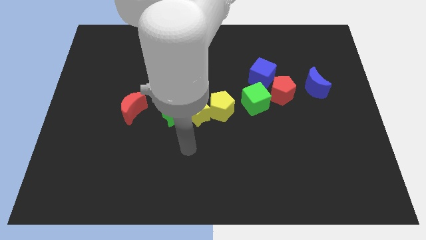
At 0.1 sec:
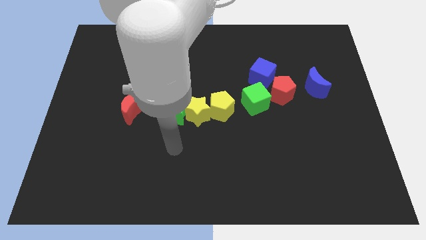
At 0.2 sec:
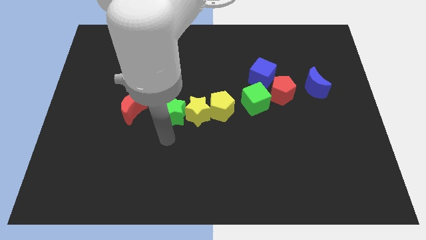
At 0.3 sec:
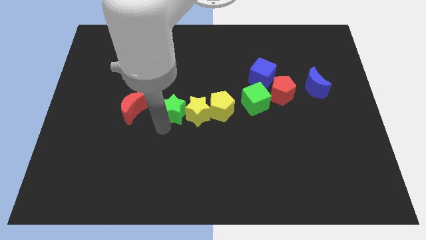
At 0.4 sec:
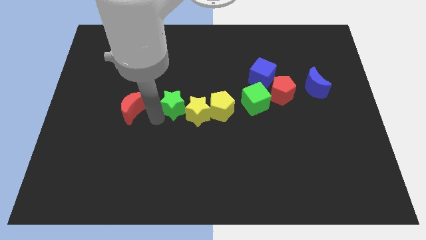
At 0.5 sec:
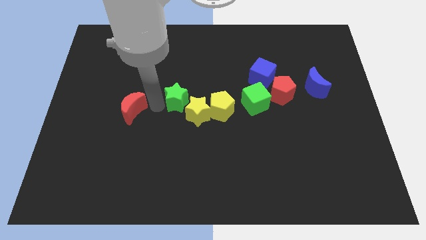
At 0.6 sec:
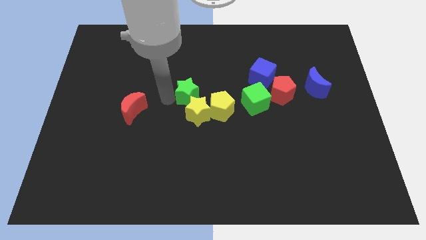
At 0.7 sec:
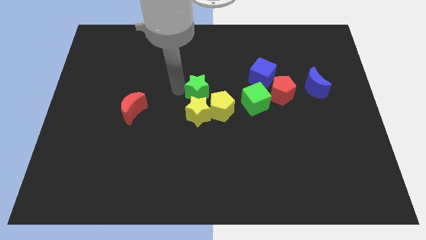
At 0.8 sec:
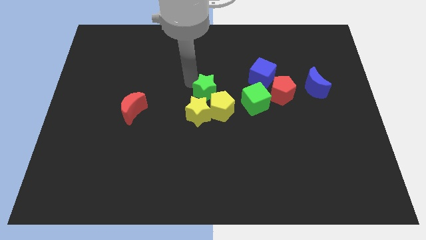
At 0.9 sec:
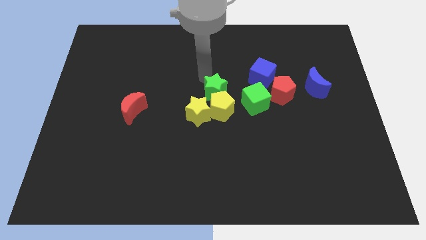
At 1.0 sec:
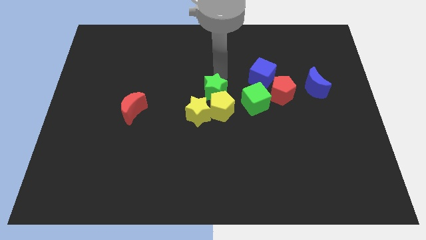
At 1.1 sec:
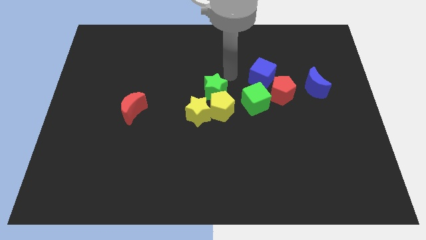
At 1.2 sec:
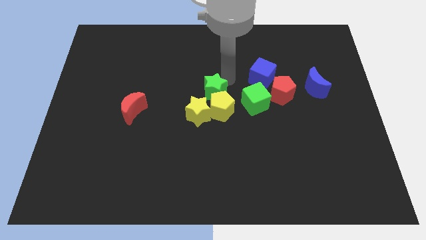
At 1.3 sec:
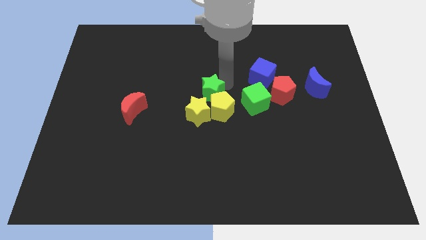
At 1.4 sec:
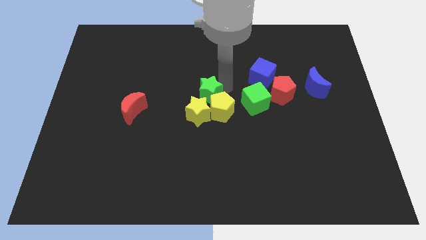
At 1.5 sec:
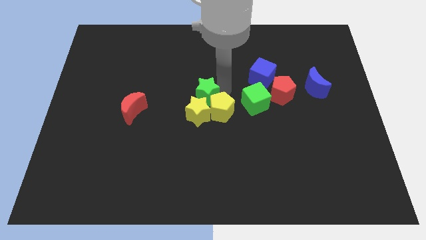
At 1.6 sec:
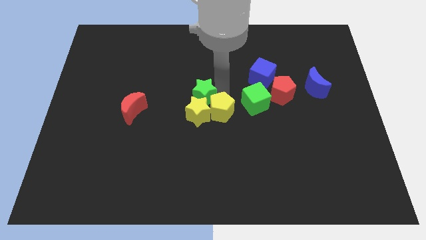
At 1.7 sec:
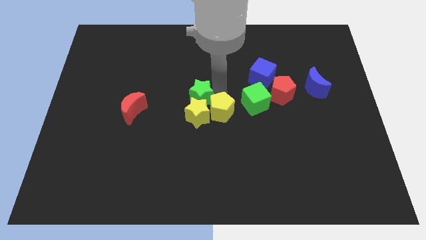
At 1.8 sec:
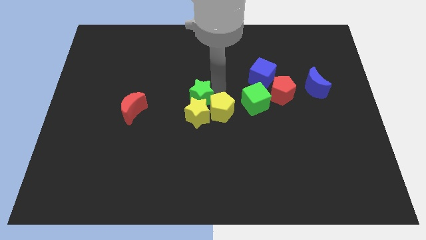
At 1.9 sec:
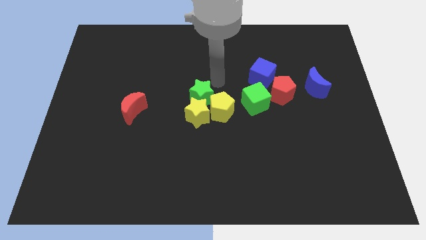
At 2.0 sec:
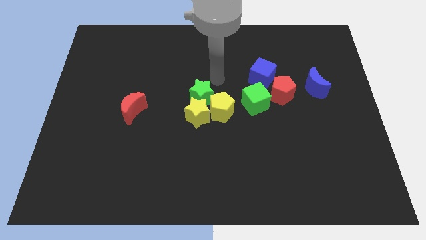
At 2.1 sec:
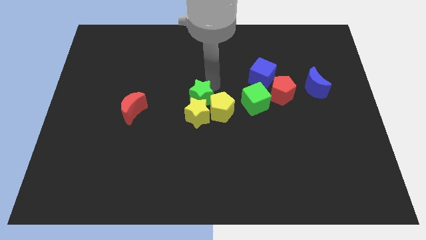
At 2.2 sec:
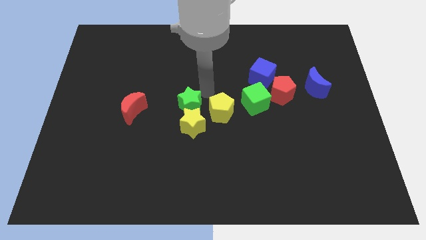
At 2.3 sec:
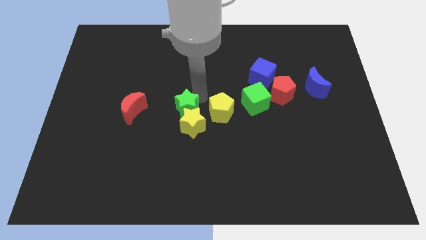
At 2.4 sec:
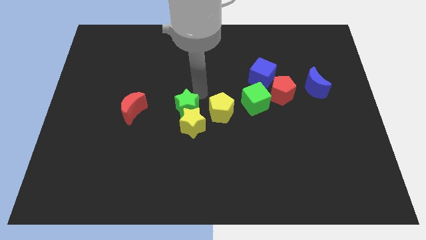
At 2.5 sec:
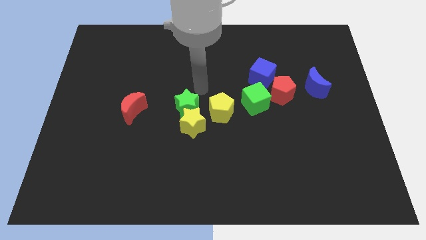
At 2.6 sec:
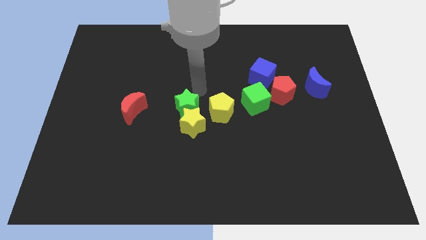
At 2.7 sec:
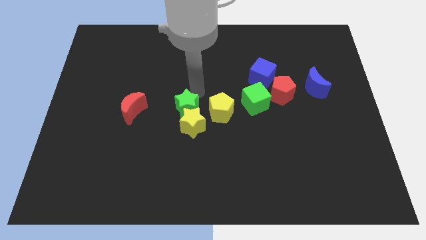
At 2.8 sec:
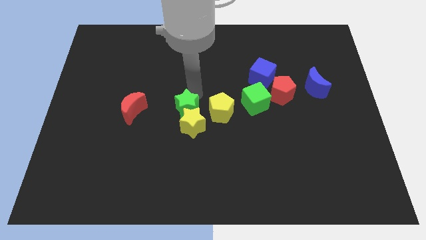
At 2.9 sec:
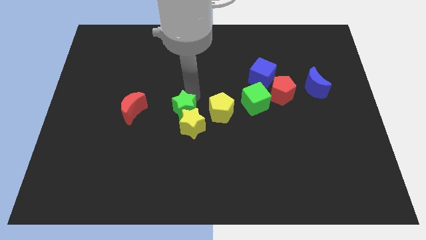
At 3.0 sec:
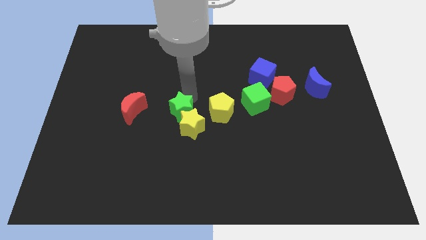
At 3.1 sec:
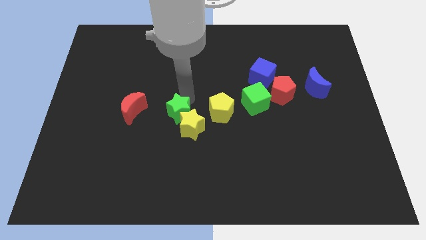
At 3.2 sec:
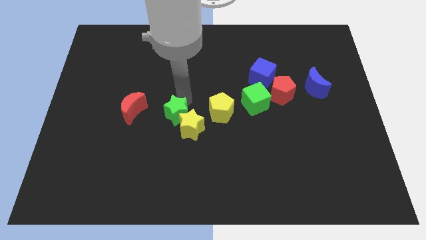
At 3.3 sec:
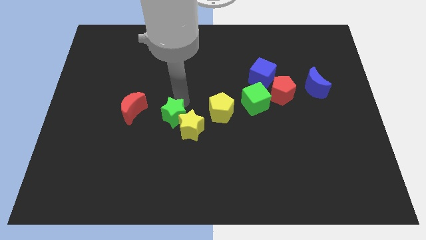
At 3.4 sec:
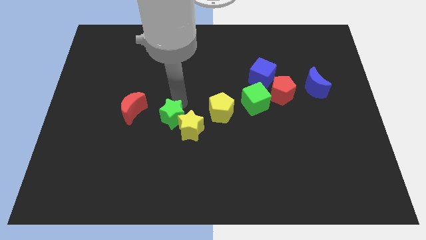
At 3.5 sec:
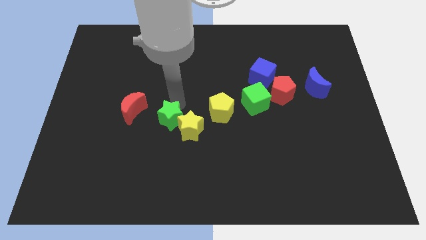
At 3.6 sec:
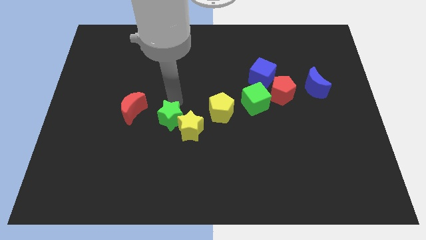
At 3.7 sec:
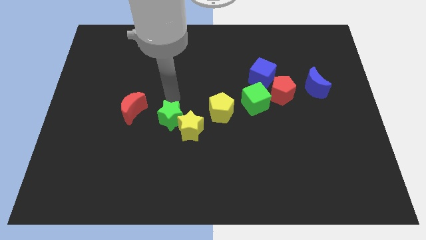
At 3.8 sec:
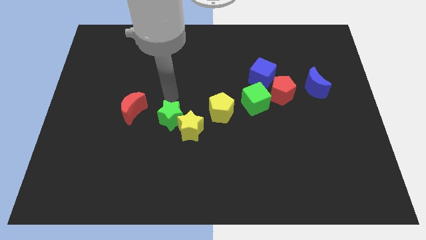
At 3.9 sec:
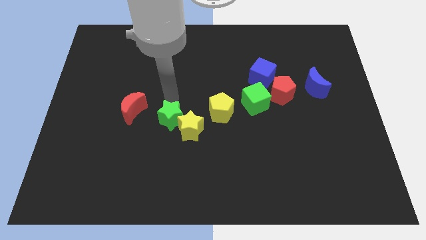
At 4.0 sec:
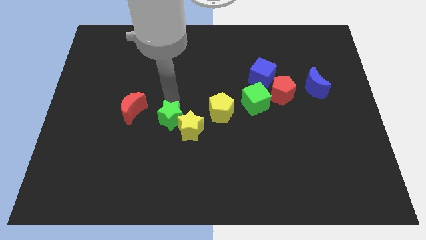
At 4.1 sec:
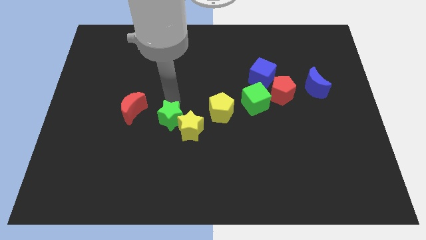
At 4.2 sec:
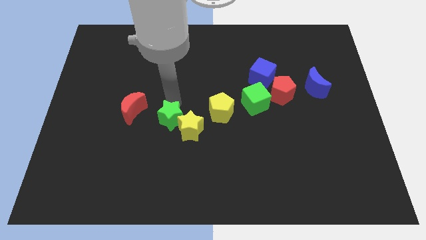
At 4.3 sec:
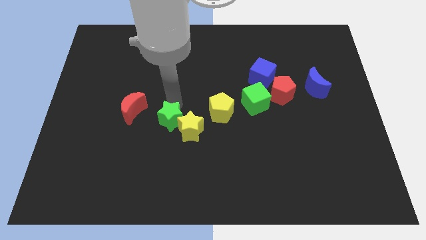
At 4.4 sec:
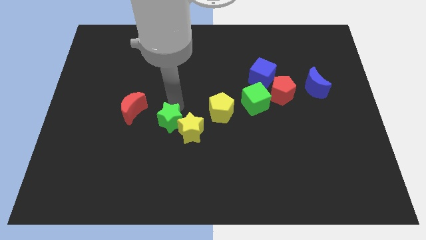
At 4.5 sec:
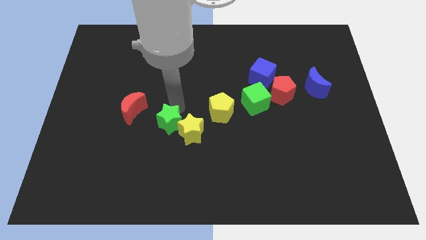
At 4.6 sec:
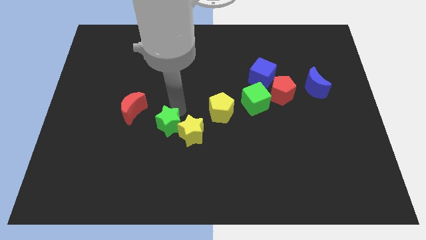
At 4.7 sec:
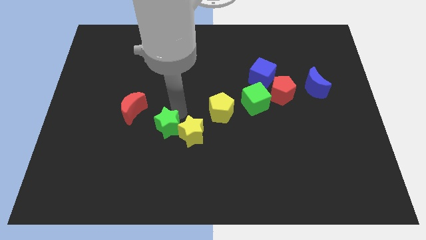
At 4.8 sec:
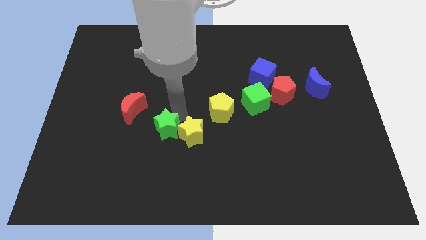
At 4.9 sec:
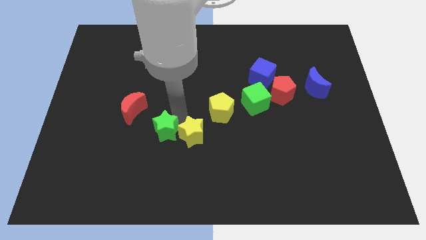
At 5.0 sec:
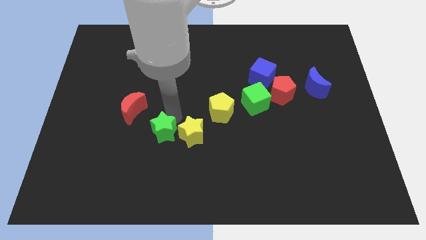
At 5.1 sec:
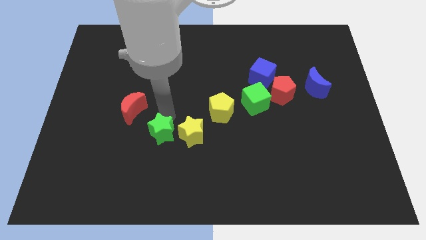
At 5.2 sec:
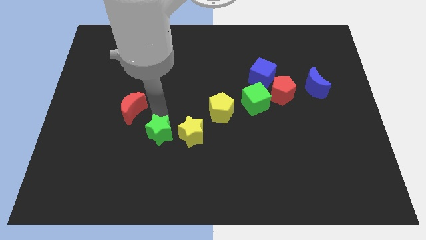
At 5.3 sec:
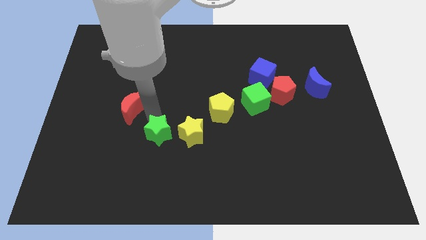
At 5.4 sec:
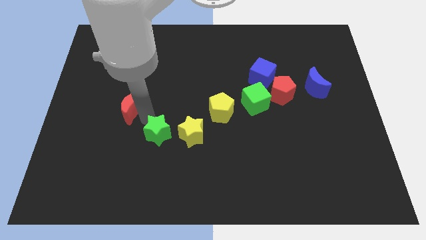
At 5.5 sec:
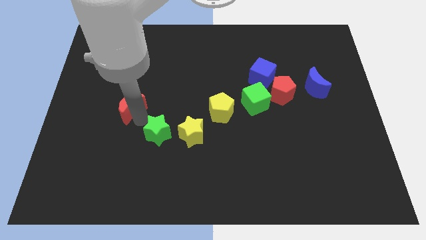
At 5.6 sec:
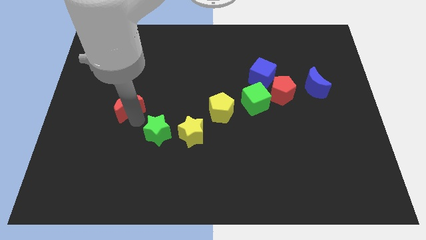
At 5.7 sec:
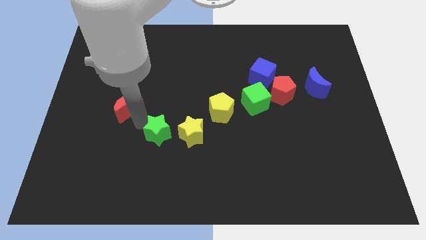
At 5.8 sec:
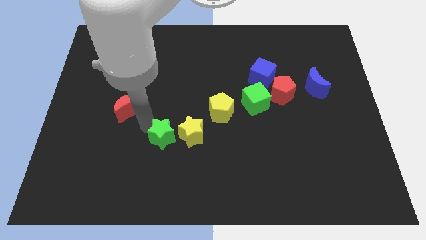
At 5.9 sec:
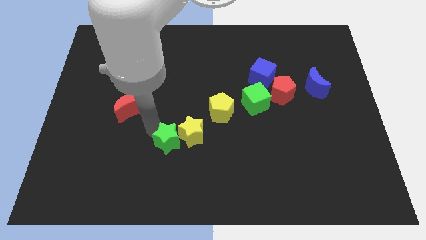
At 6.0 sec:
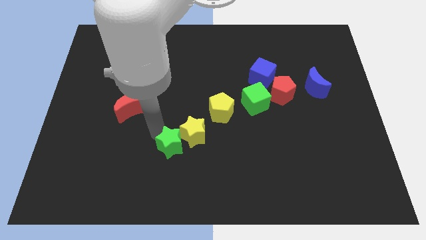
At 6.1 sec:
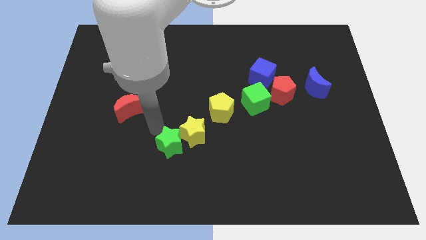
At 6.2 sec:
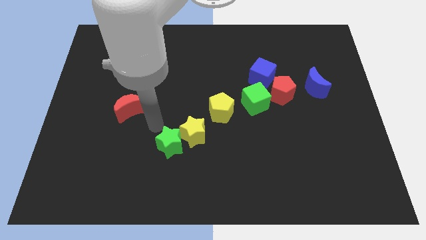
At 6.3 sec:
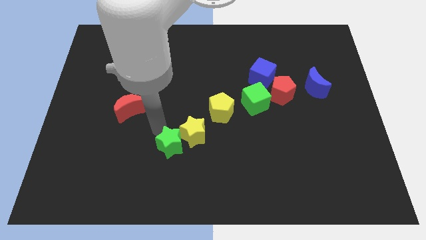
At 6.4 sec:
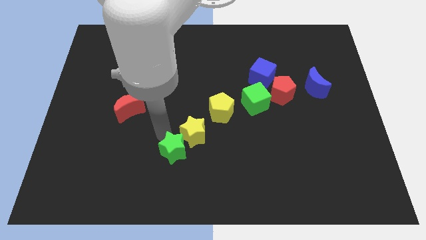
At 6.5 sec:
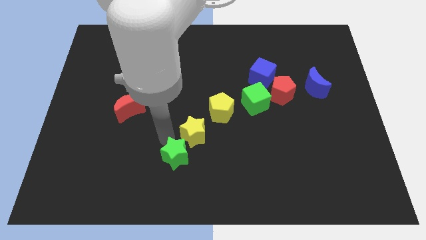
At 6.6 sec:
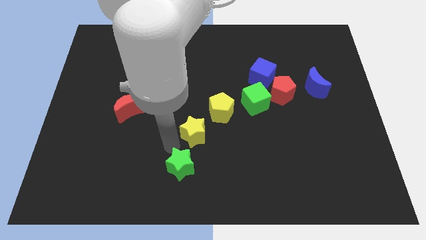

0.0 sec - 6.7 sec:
push the green star to the bottom side
